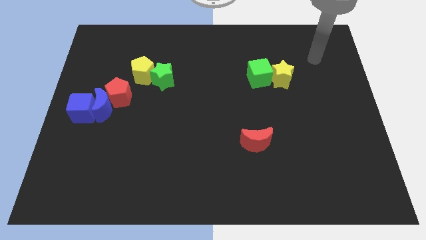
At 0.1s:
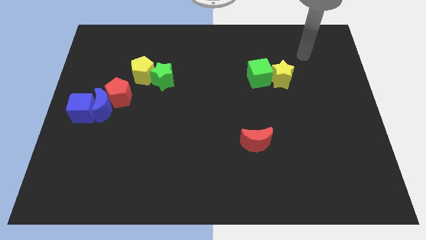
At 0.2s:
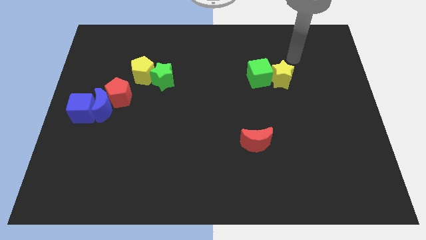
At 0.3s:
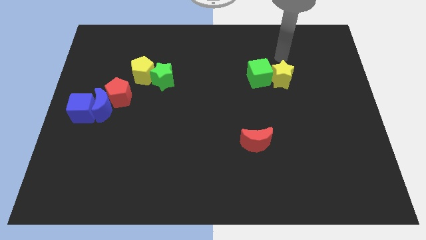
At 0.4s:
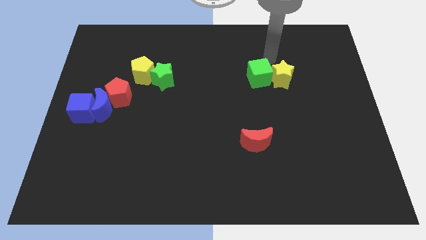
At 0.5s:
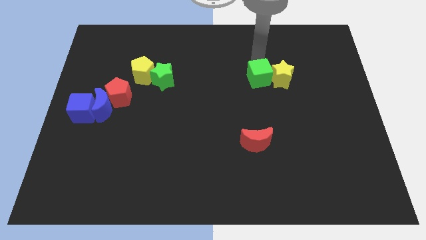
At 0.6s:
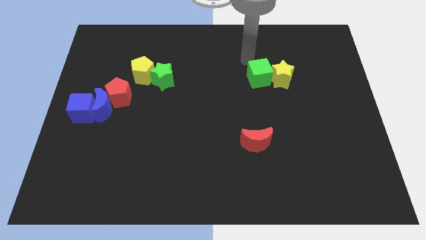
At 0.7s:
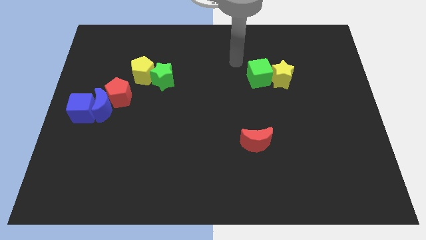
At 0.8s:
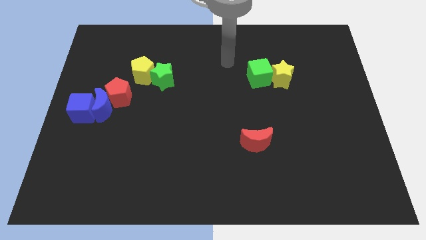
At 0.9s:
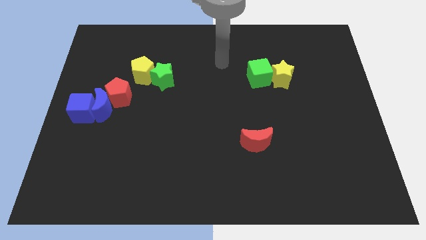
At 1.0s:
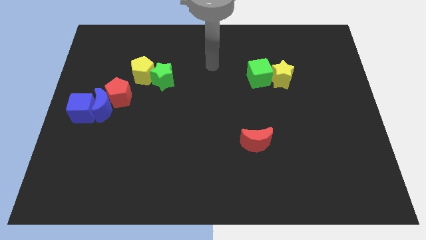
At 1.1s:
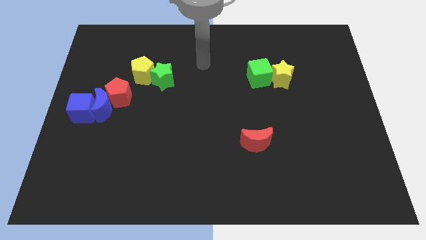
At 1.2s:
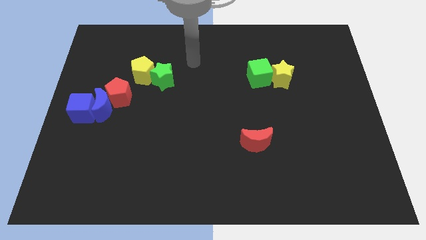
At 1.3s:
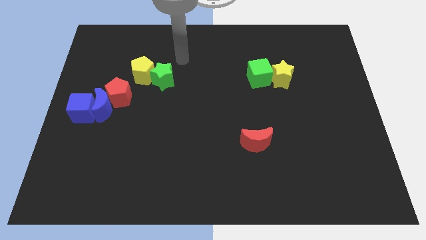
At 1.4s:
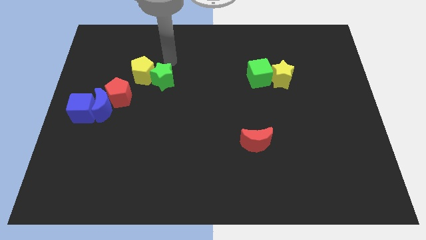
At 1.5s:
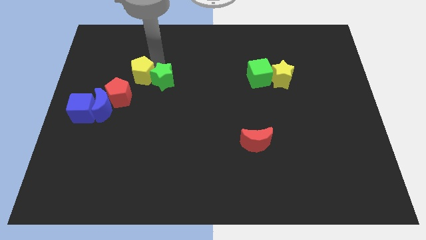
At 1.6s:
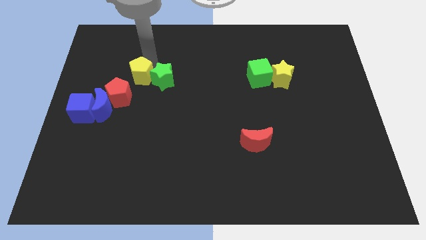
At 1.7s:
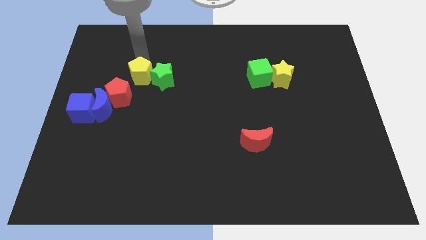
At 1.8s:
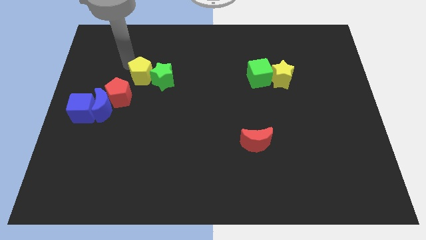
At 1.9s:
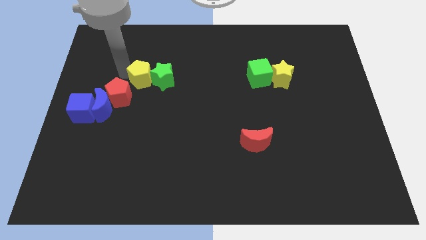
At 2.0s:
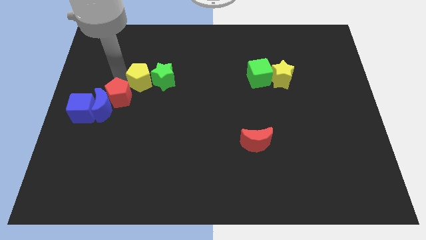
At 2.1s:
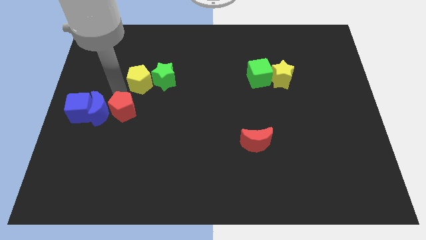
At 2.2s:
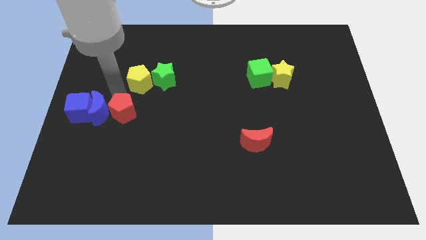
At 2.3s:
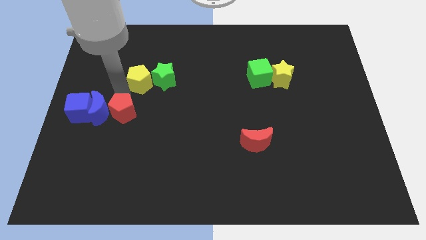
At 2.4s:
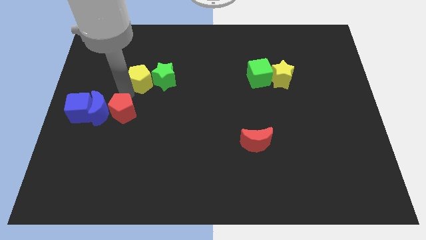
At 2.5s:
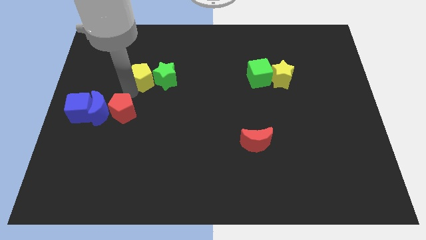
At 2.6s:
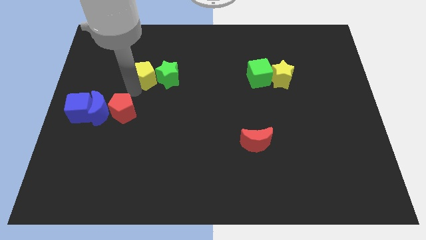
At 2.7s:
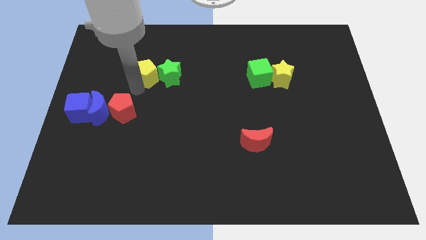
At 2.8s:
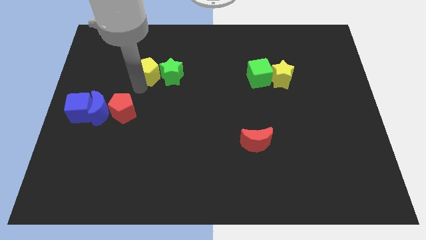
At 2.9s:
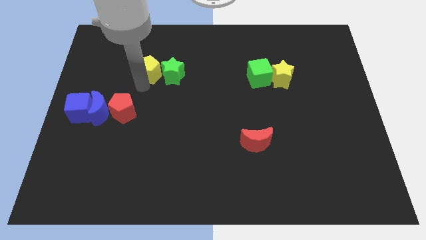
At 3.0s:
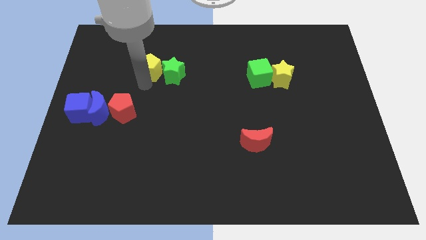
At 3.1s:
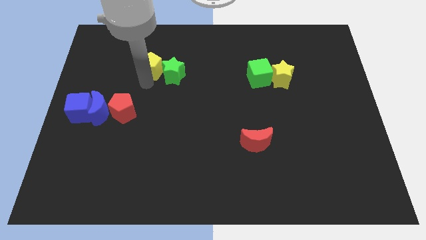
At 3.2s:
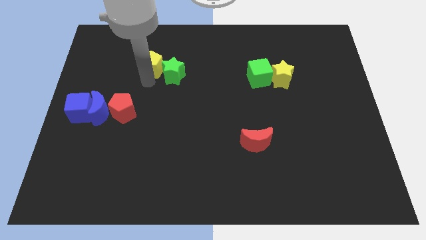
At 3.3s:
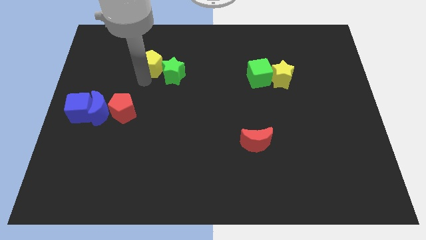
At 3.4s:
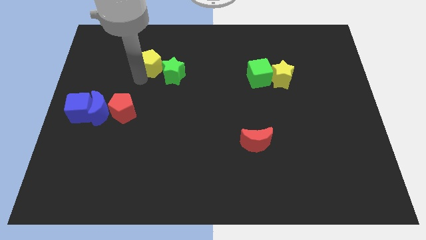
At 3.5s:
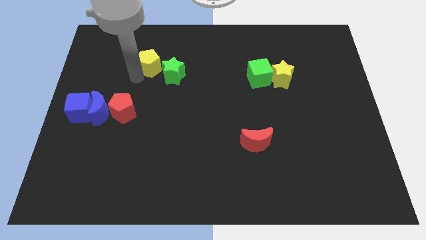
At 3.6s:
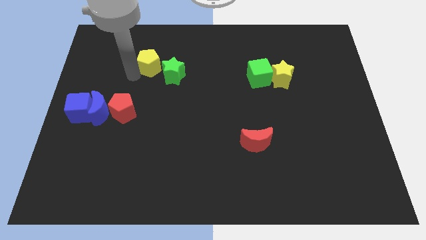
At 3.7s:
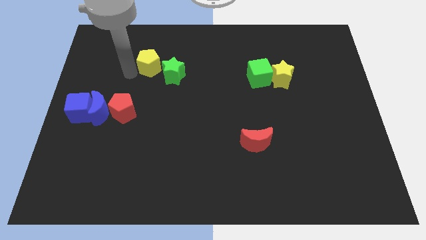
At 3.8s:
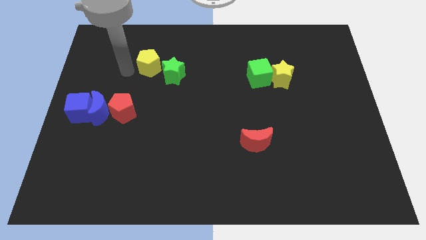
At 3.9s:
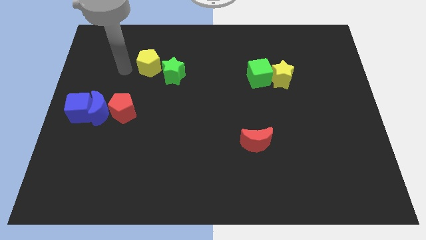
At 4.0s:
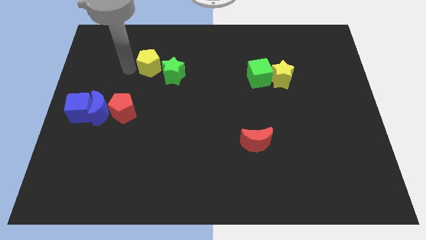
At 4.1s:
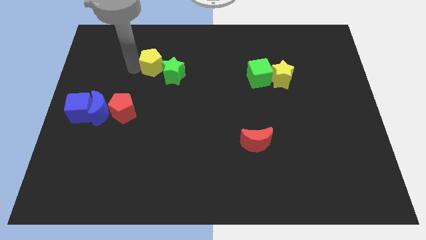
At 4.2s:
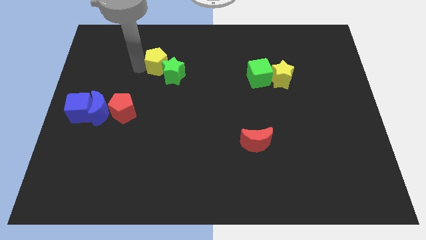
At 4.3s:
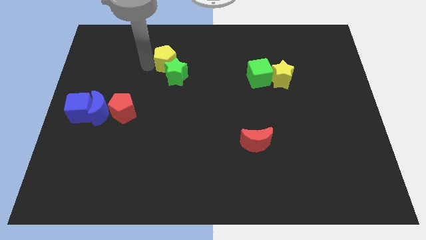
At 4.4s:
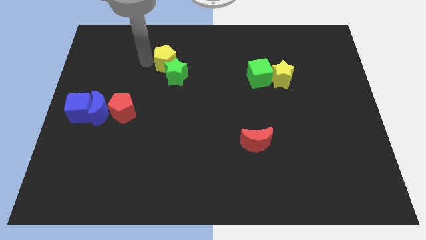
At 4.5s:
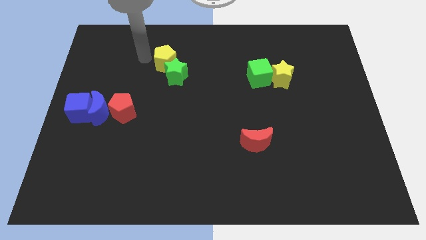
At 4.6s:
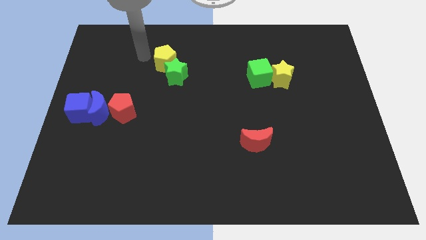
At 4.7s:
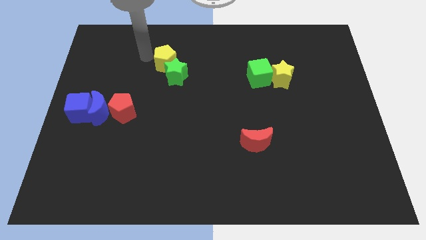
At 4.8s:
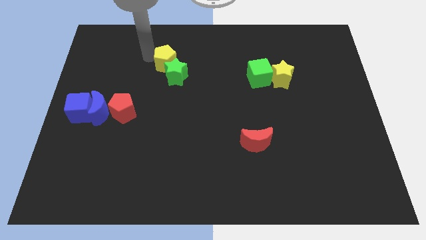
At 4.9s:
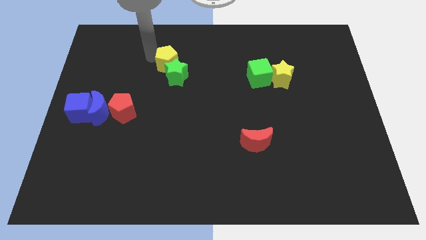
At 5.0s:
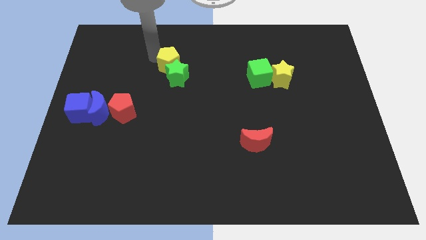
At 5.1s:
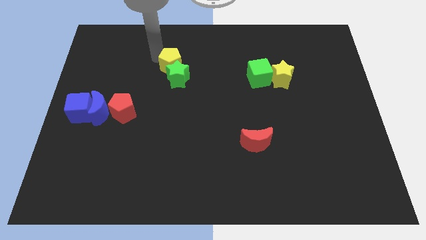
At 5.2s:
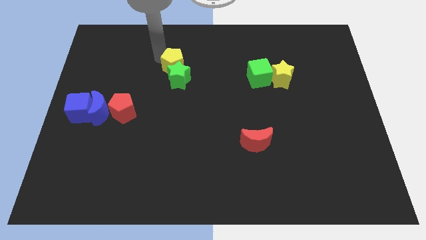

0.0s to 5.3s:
slightly push the yellow pentagon to the right

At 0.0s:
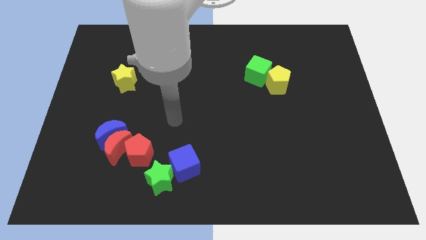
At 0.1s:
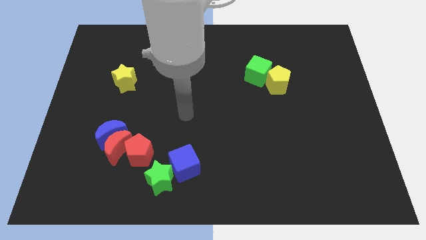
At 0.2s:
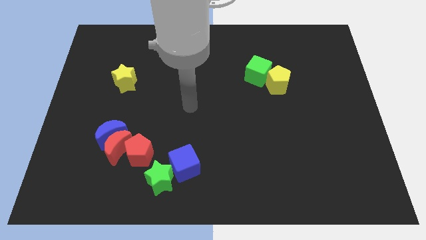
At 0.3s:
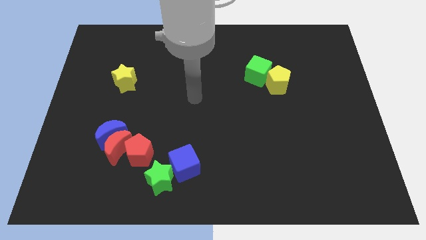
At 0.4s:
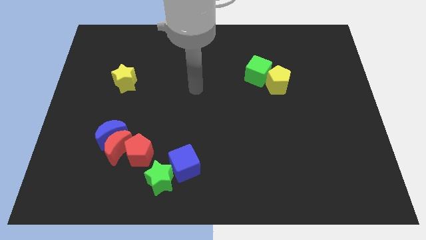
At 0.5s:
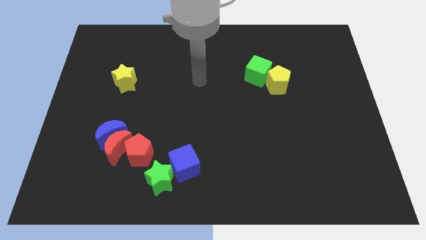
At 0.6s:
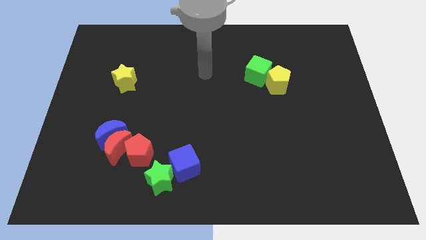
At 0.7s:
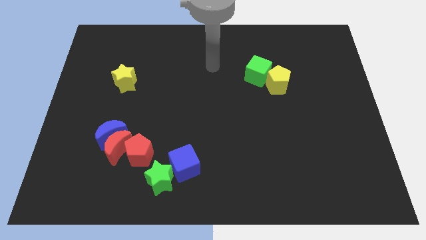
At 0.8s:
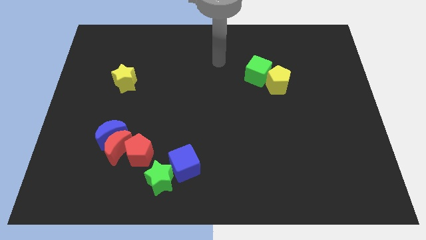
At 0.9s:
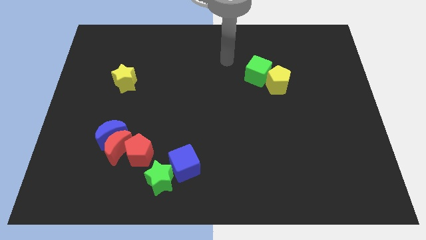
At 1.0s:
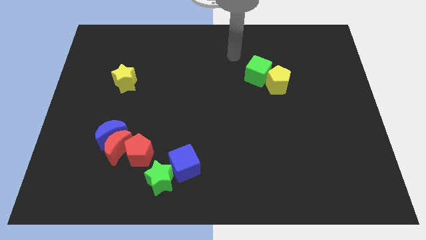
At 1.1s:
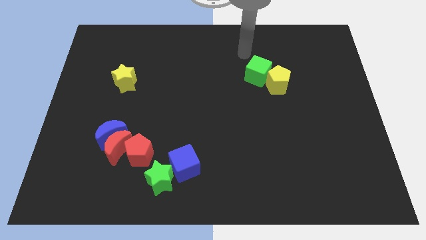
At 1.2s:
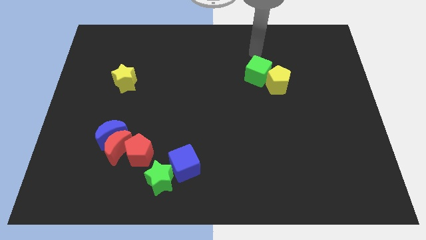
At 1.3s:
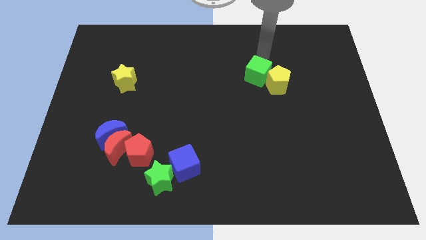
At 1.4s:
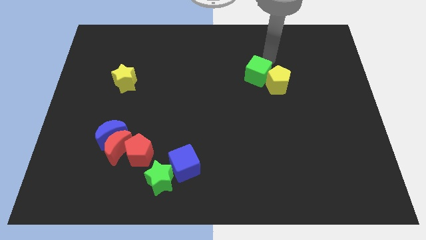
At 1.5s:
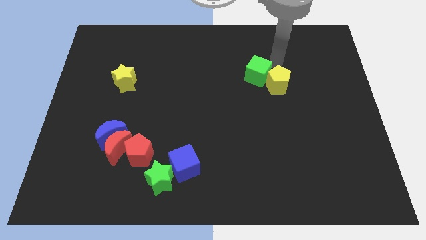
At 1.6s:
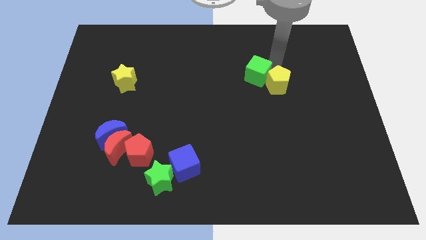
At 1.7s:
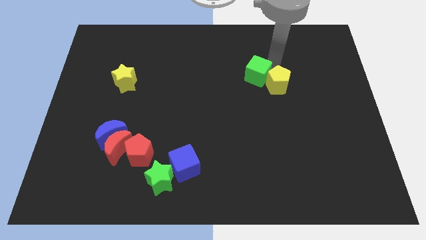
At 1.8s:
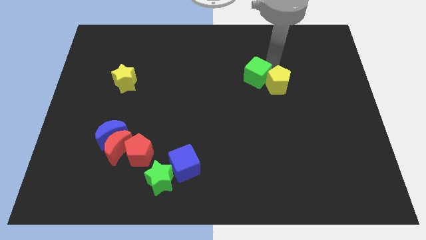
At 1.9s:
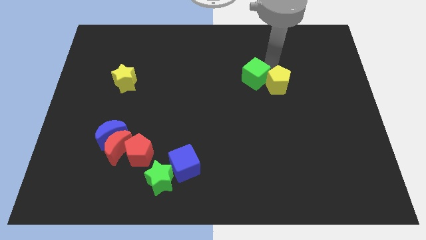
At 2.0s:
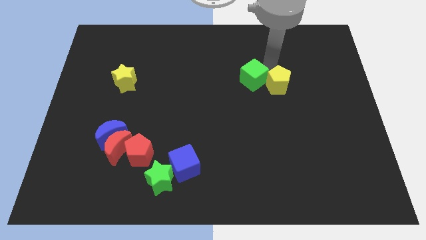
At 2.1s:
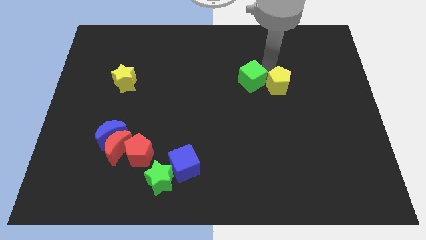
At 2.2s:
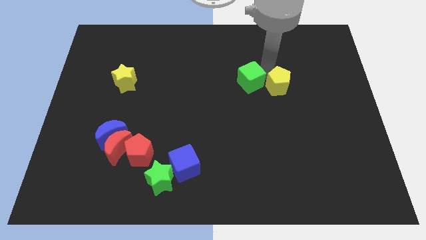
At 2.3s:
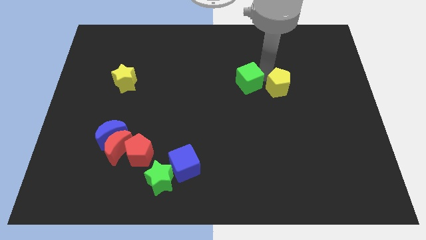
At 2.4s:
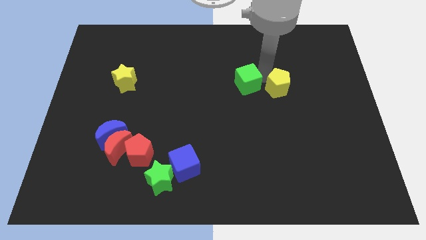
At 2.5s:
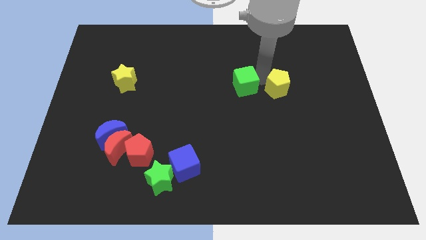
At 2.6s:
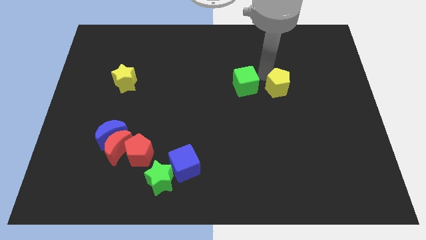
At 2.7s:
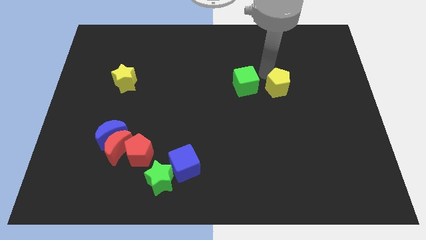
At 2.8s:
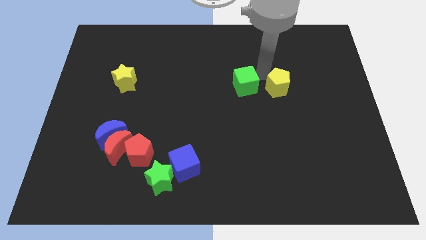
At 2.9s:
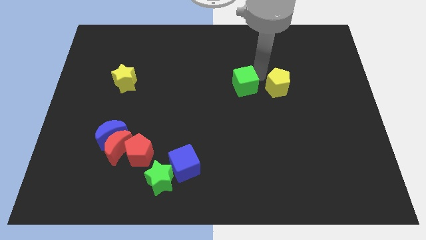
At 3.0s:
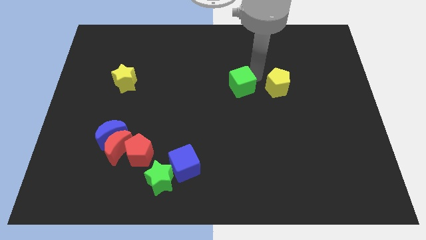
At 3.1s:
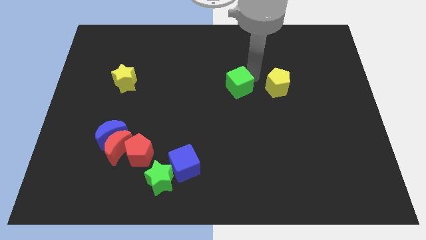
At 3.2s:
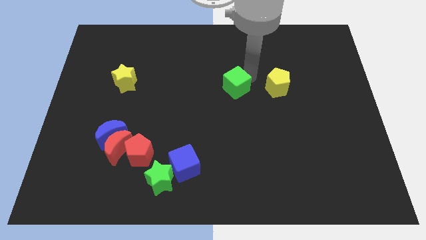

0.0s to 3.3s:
slightly move the green cube down and then left
